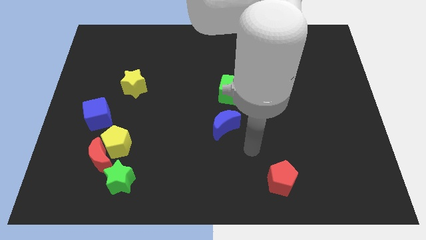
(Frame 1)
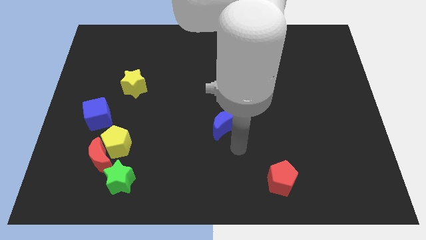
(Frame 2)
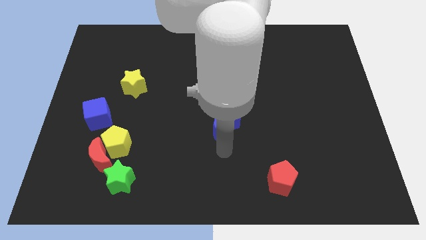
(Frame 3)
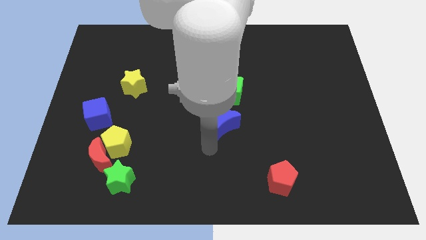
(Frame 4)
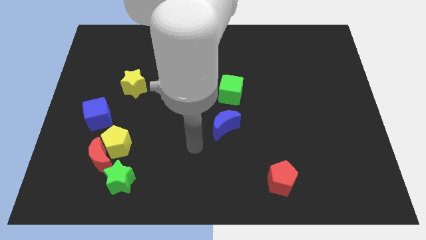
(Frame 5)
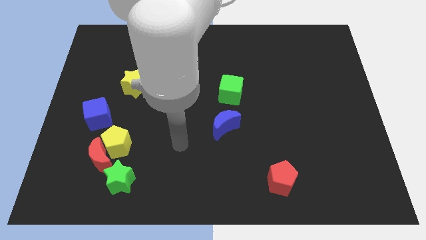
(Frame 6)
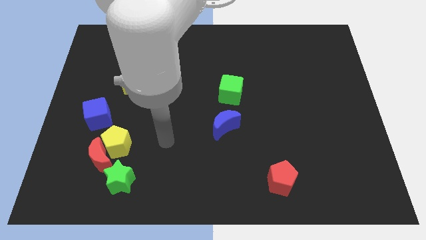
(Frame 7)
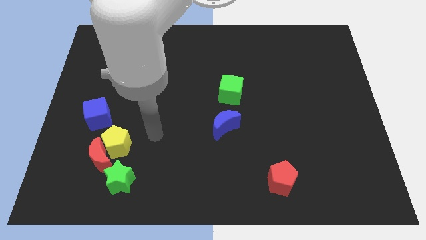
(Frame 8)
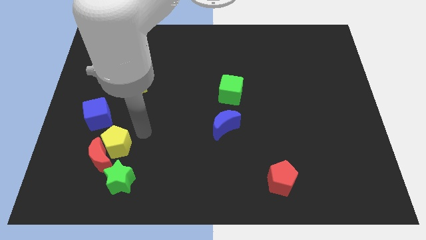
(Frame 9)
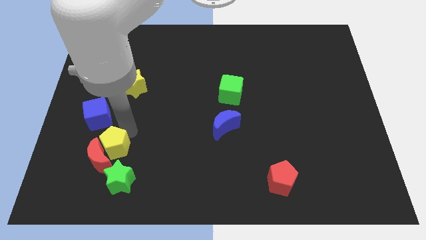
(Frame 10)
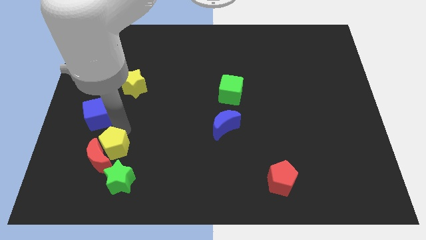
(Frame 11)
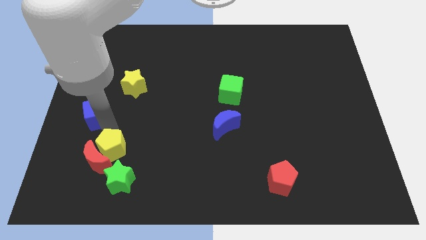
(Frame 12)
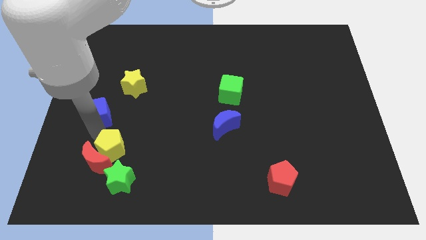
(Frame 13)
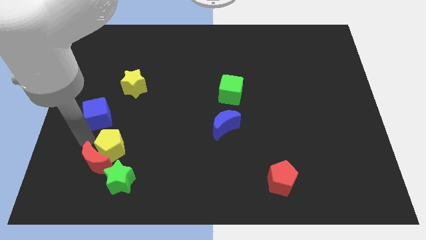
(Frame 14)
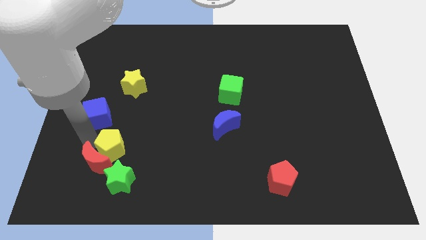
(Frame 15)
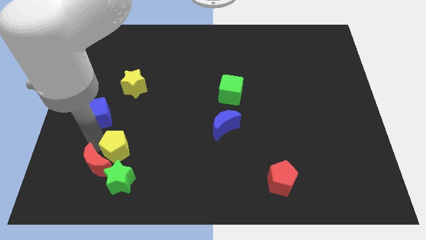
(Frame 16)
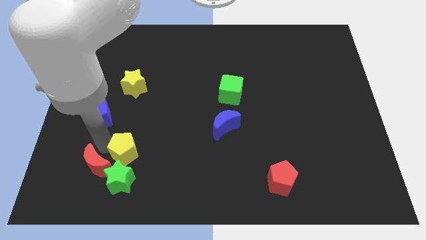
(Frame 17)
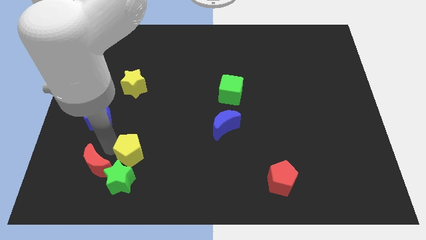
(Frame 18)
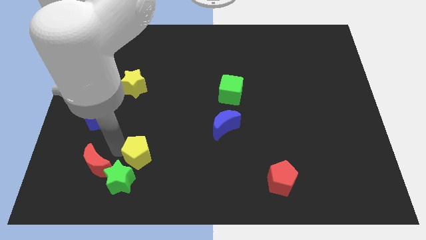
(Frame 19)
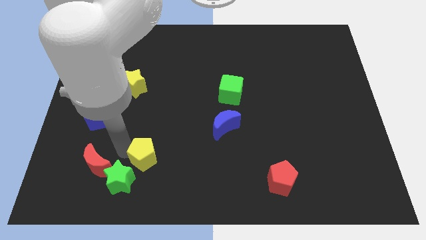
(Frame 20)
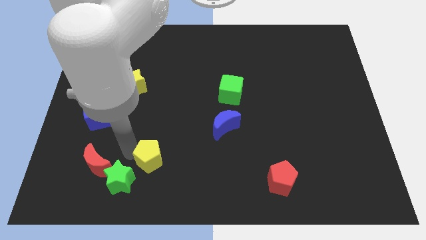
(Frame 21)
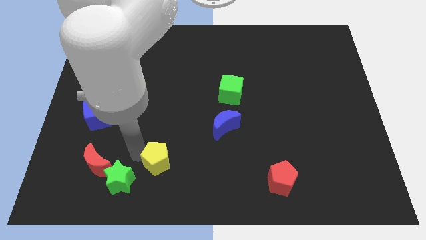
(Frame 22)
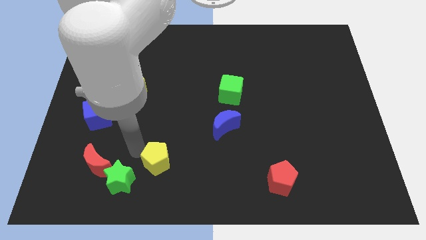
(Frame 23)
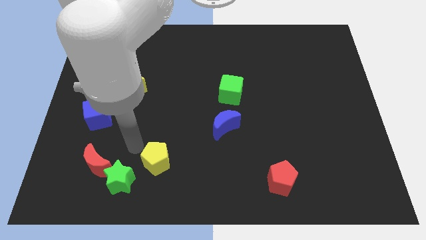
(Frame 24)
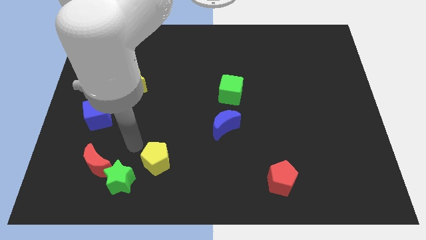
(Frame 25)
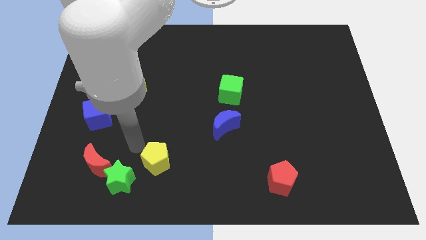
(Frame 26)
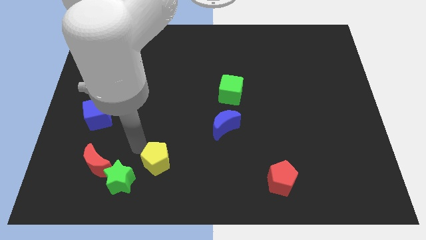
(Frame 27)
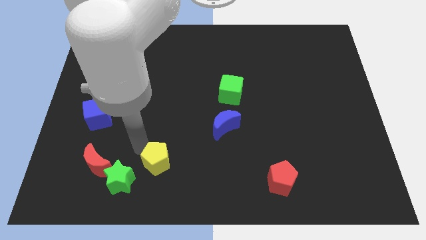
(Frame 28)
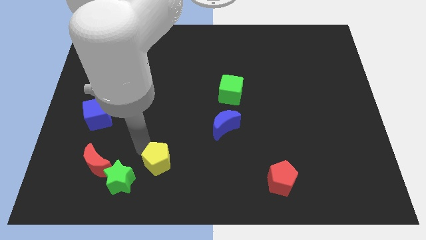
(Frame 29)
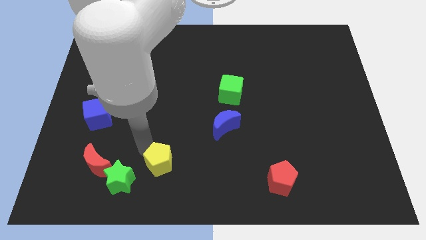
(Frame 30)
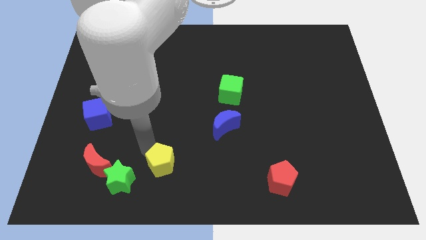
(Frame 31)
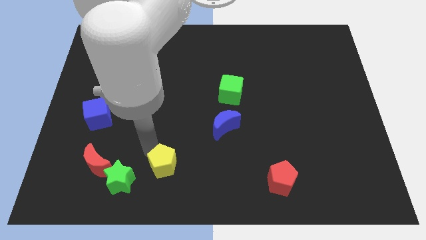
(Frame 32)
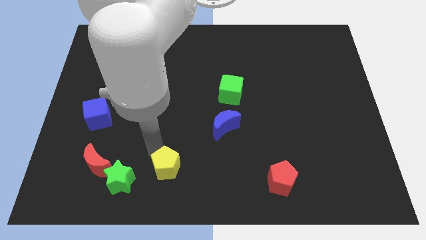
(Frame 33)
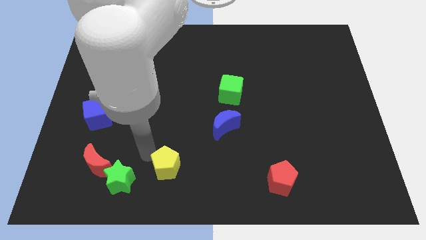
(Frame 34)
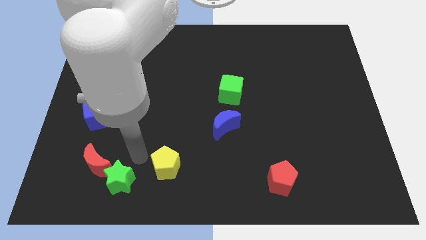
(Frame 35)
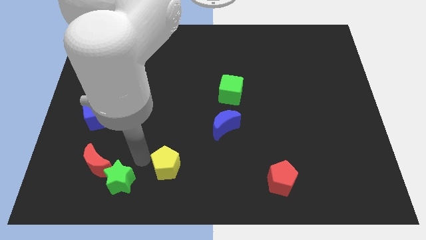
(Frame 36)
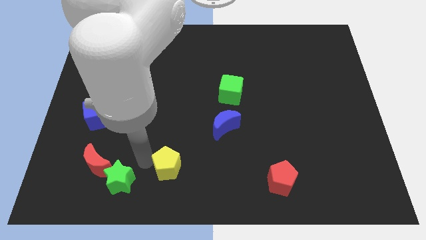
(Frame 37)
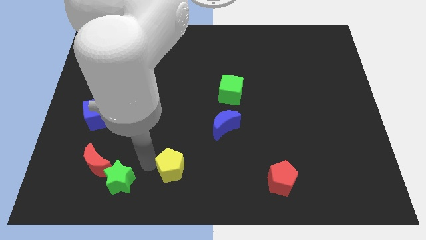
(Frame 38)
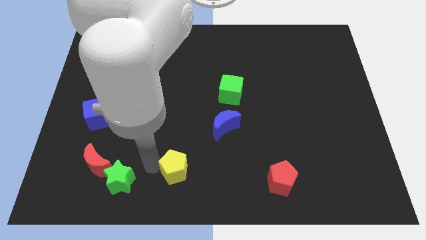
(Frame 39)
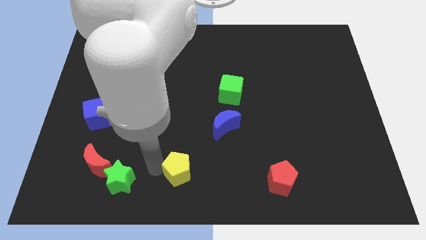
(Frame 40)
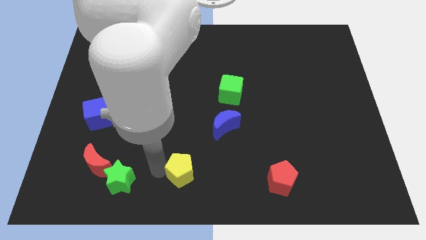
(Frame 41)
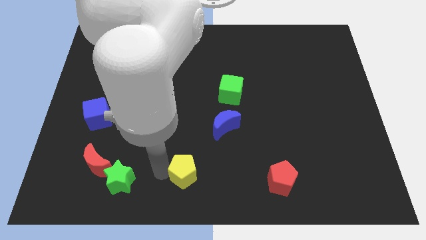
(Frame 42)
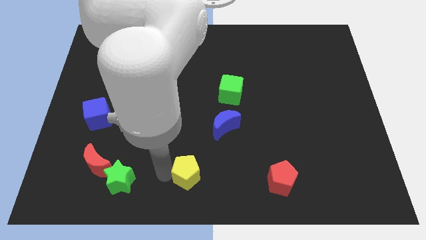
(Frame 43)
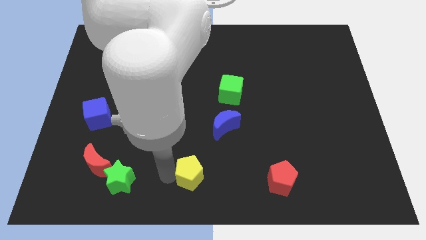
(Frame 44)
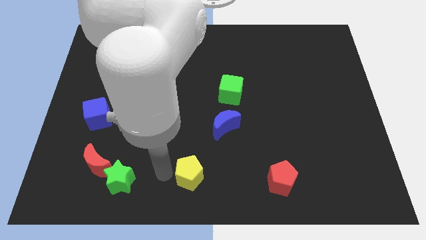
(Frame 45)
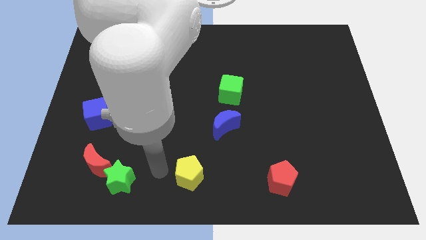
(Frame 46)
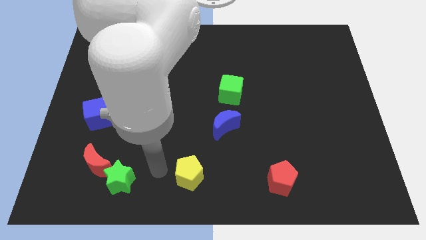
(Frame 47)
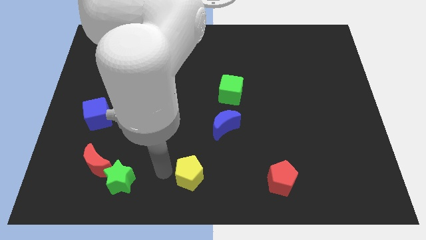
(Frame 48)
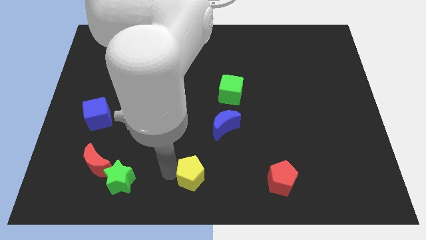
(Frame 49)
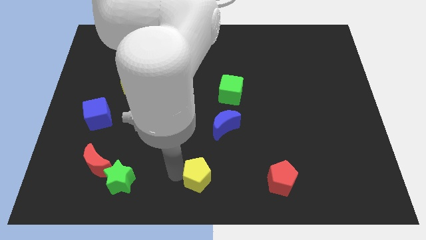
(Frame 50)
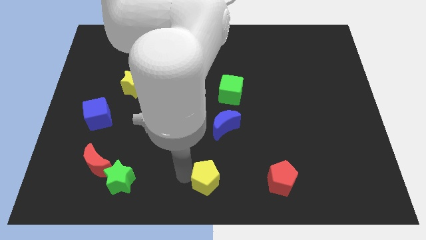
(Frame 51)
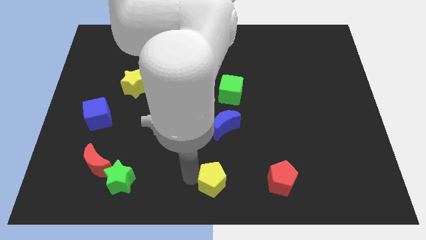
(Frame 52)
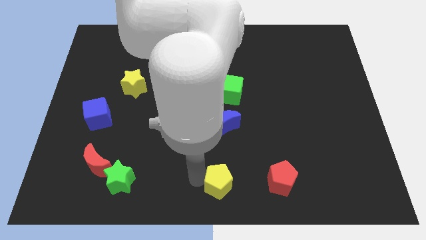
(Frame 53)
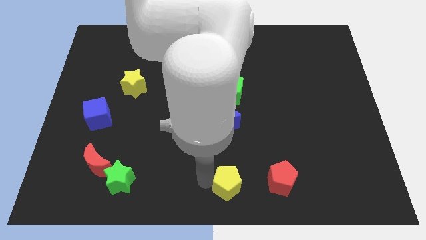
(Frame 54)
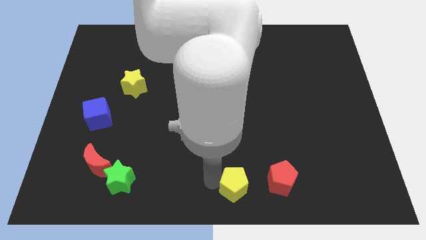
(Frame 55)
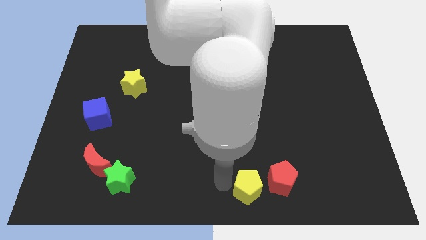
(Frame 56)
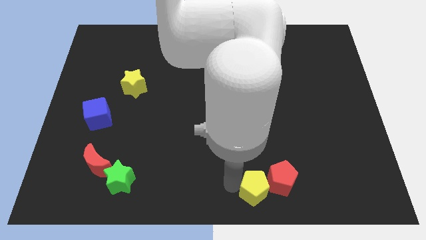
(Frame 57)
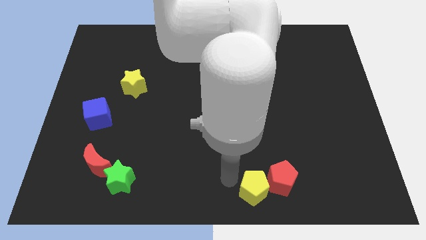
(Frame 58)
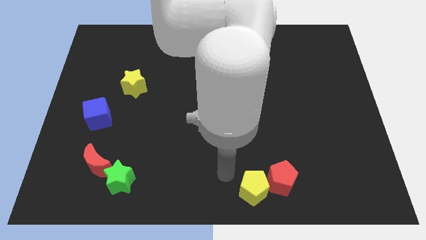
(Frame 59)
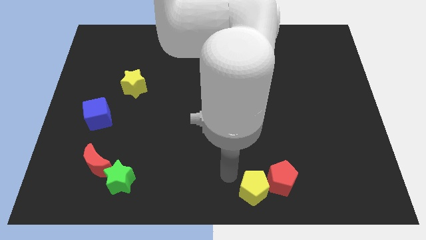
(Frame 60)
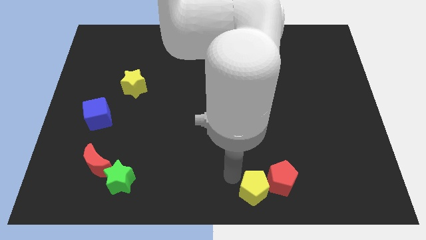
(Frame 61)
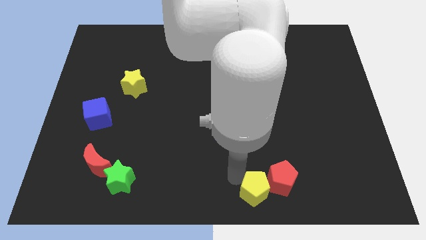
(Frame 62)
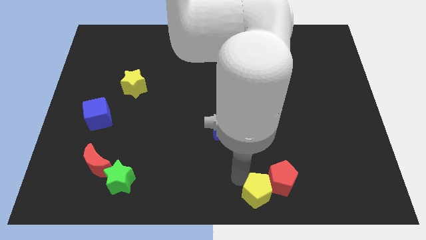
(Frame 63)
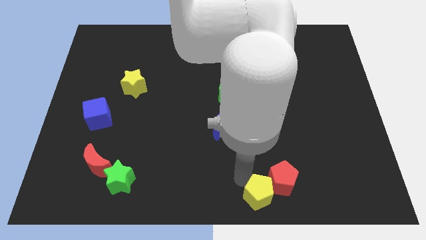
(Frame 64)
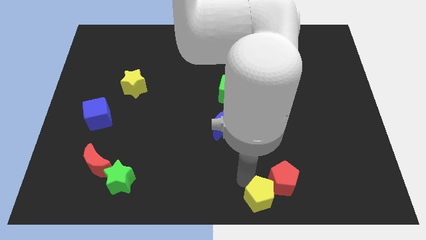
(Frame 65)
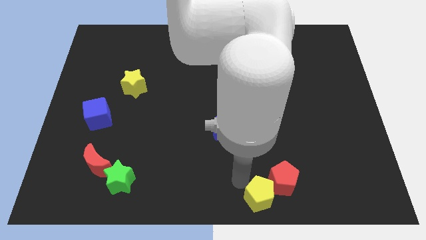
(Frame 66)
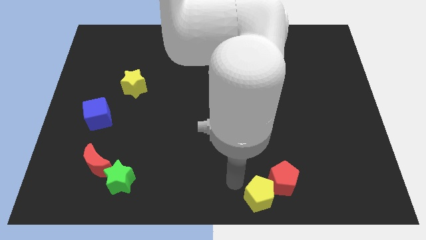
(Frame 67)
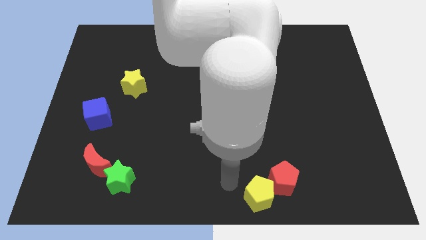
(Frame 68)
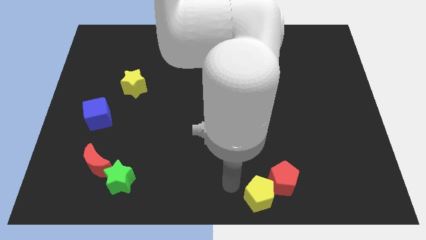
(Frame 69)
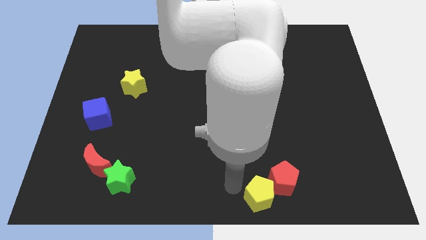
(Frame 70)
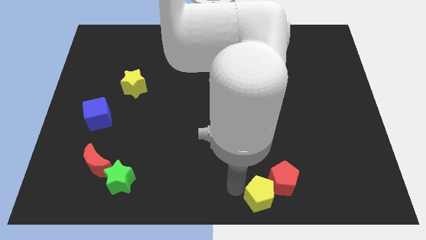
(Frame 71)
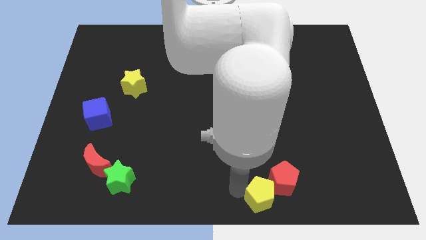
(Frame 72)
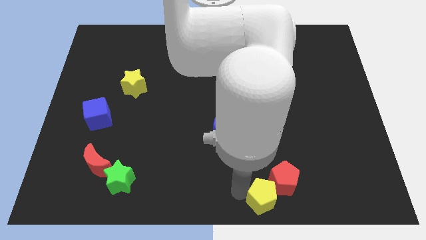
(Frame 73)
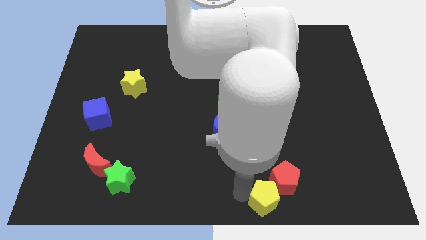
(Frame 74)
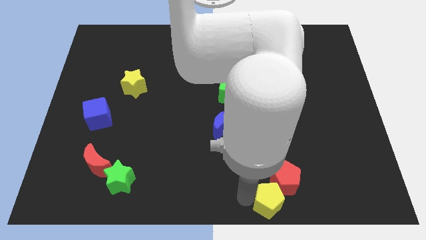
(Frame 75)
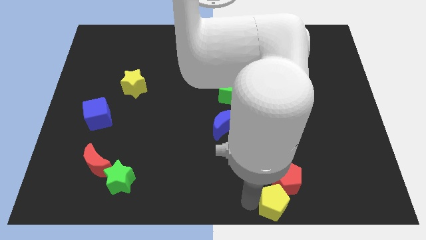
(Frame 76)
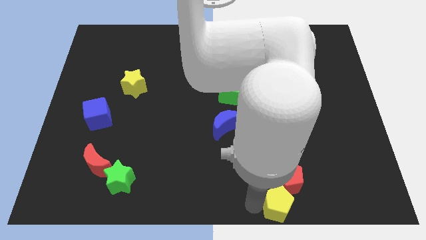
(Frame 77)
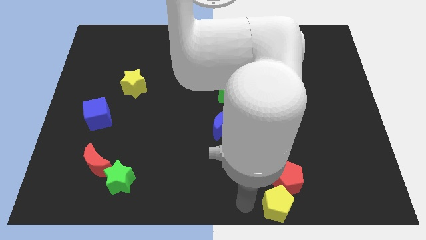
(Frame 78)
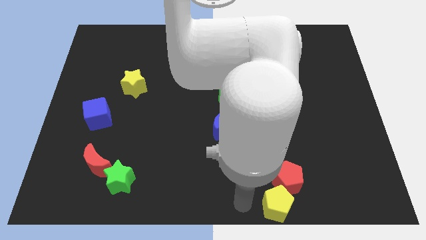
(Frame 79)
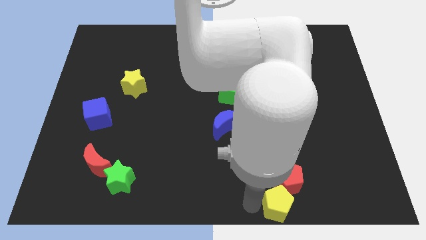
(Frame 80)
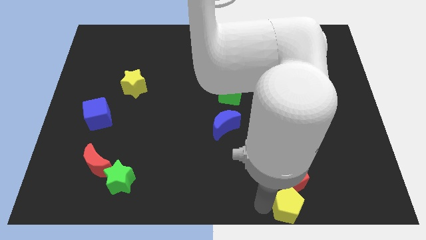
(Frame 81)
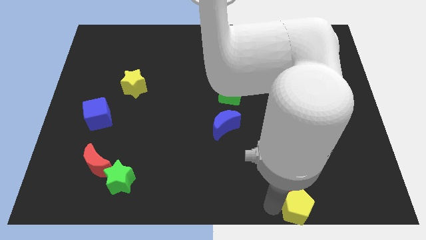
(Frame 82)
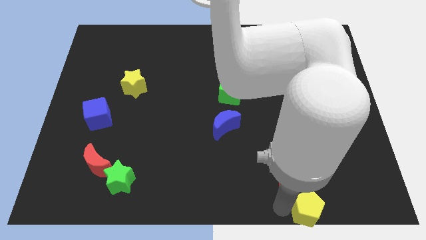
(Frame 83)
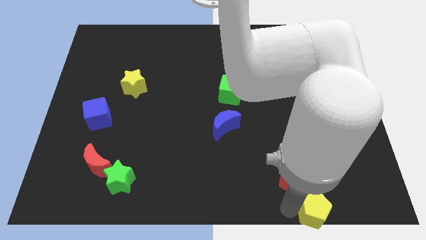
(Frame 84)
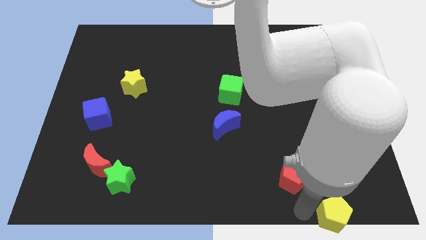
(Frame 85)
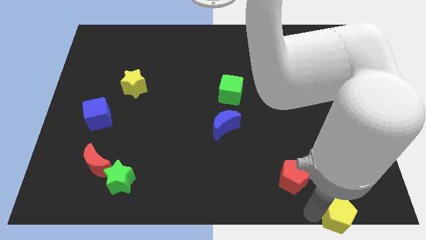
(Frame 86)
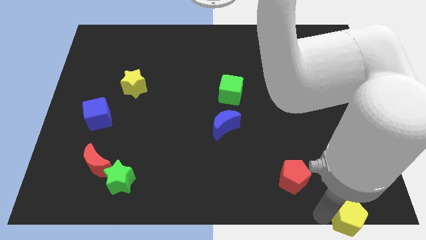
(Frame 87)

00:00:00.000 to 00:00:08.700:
push the yellow pentagon to the lower right corner
